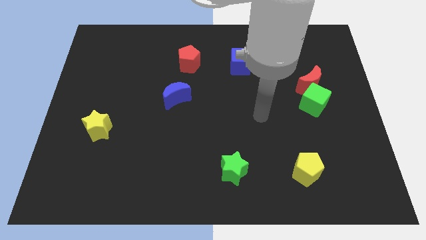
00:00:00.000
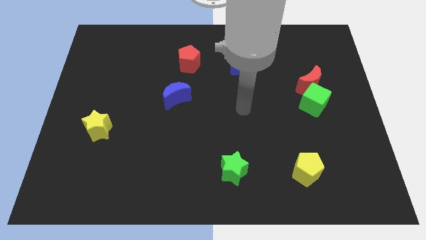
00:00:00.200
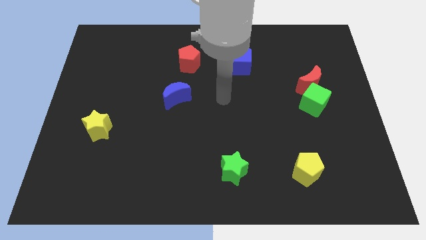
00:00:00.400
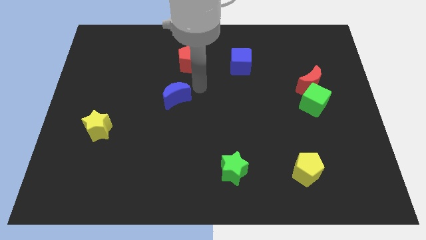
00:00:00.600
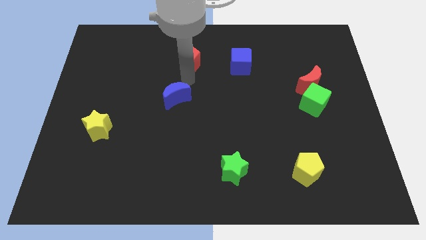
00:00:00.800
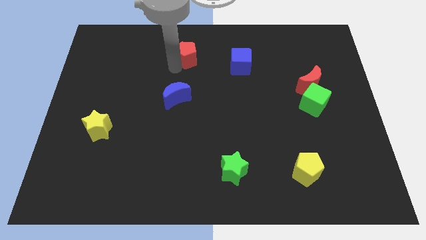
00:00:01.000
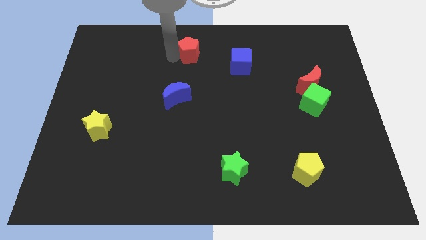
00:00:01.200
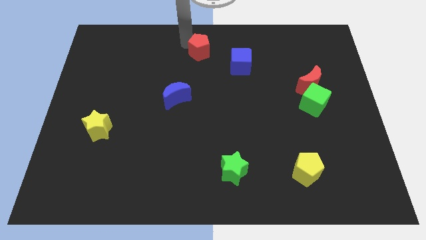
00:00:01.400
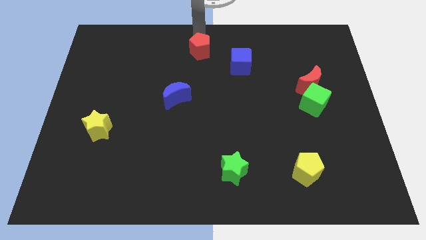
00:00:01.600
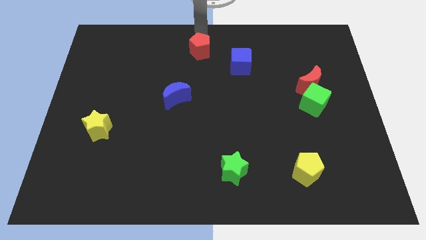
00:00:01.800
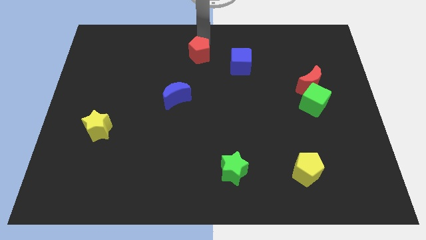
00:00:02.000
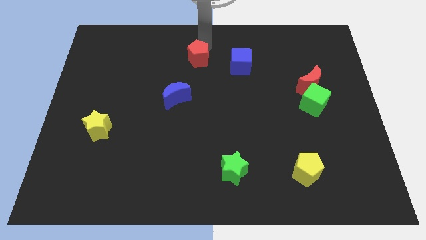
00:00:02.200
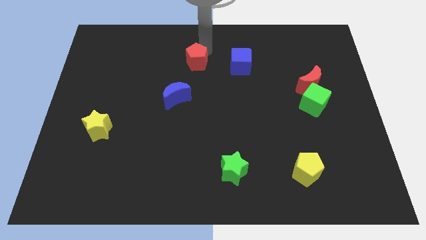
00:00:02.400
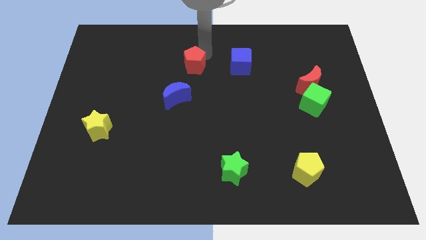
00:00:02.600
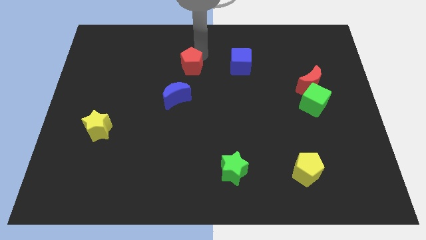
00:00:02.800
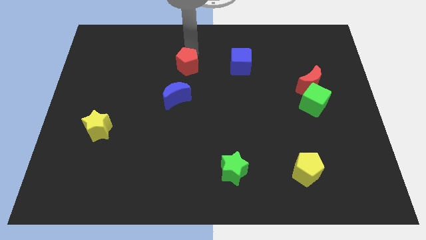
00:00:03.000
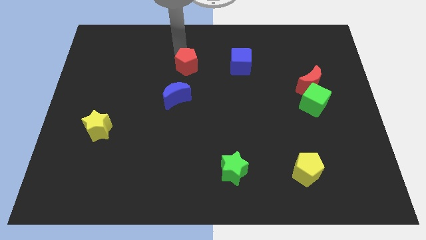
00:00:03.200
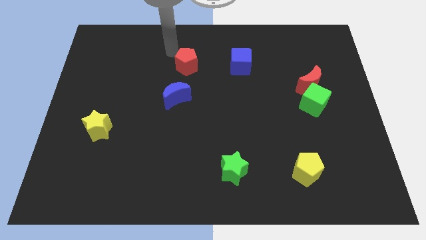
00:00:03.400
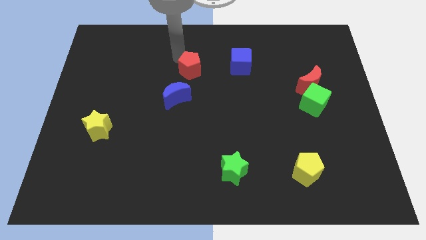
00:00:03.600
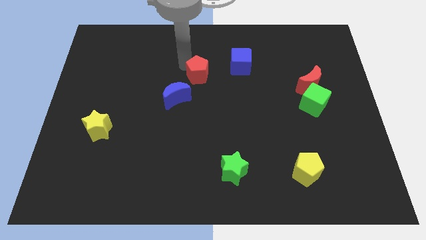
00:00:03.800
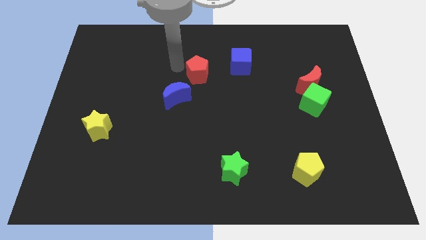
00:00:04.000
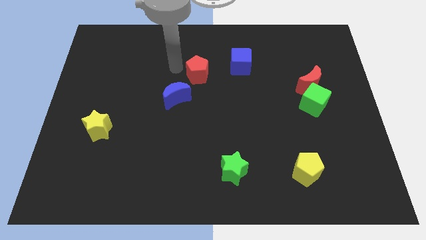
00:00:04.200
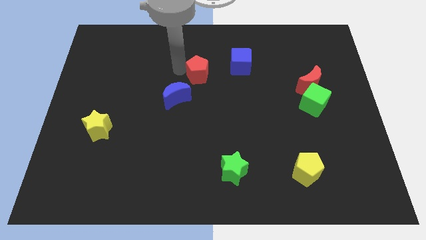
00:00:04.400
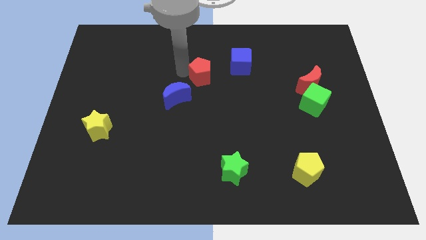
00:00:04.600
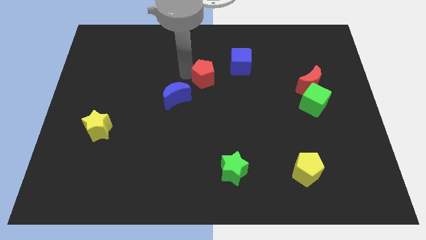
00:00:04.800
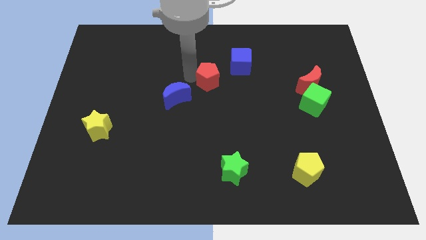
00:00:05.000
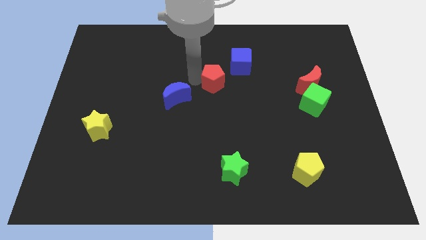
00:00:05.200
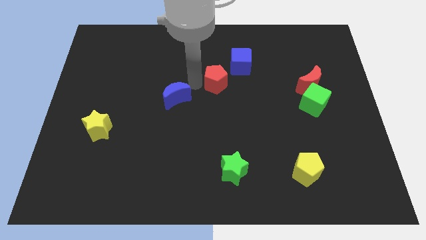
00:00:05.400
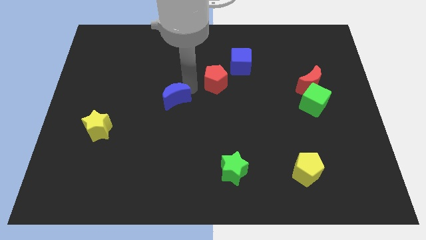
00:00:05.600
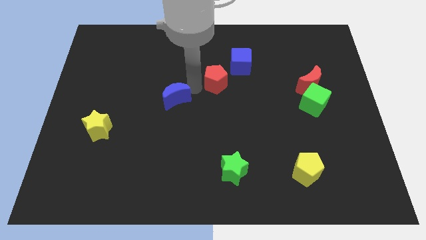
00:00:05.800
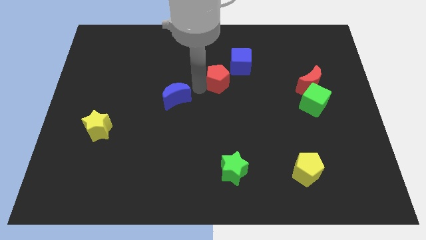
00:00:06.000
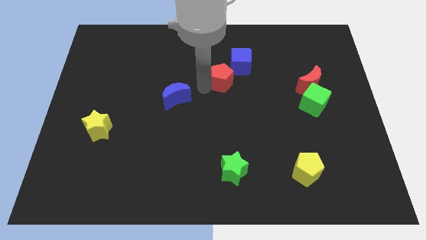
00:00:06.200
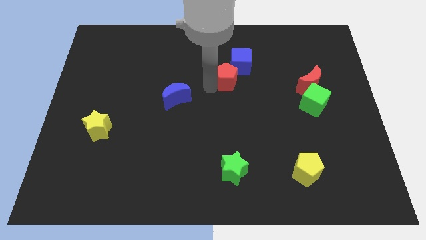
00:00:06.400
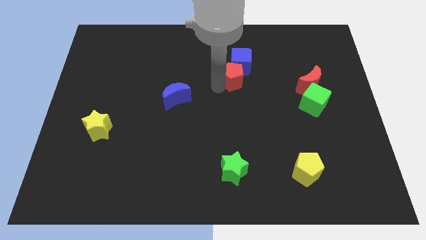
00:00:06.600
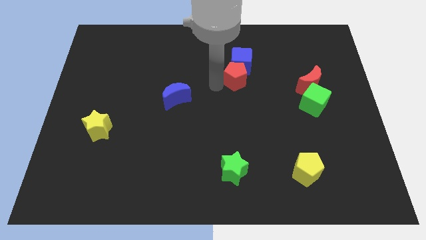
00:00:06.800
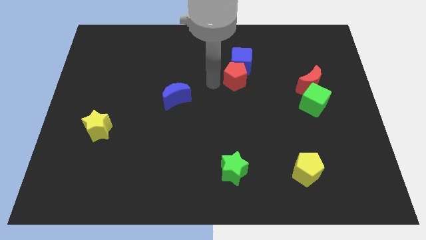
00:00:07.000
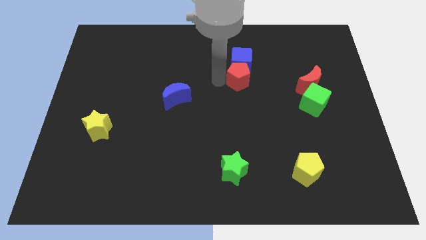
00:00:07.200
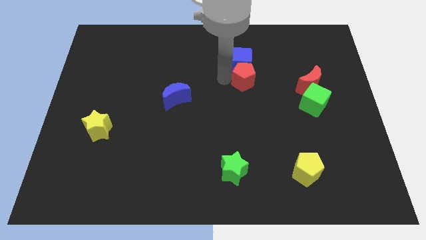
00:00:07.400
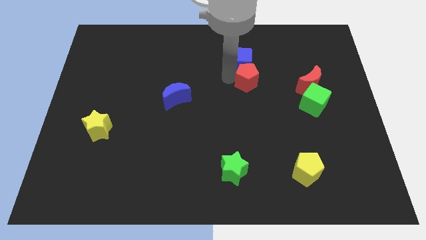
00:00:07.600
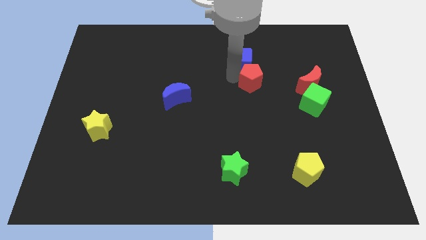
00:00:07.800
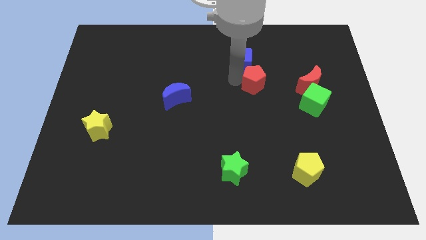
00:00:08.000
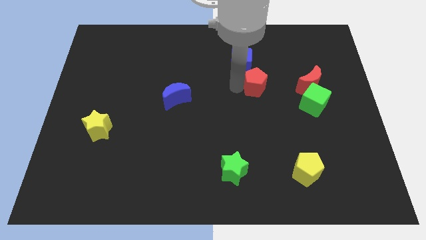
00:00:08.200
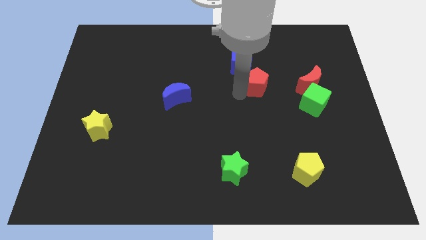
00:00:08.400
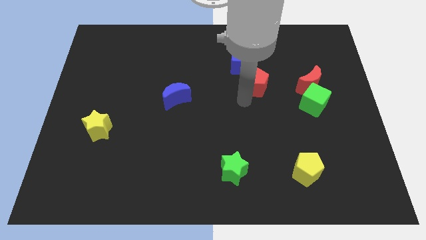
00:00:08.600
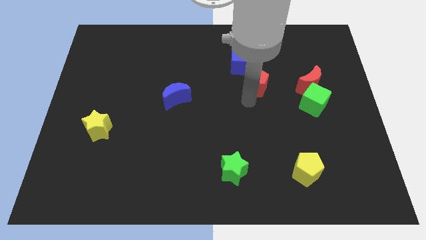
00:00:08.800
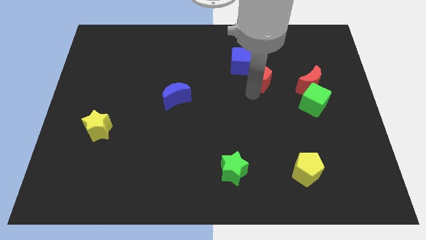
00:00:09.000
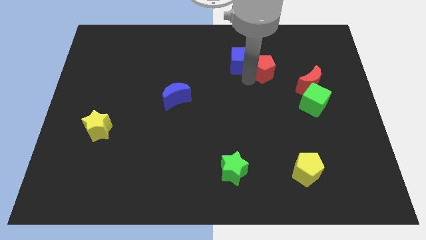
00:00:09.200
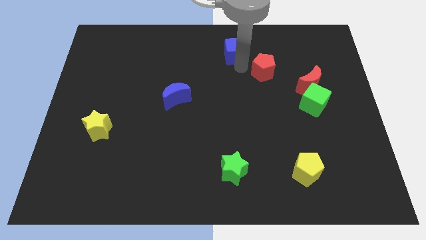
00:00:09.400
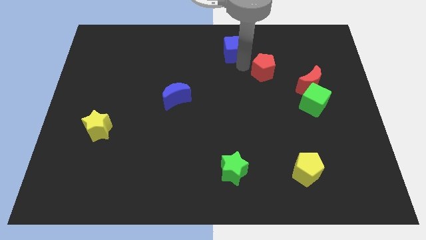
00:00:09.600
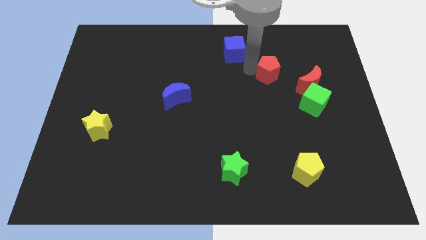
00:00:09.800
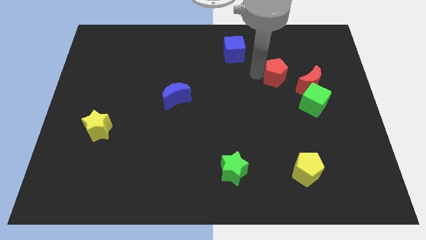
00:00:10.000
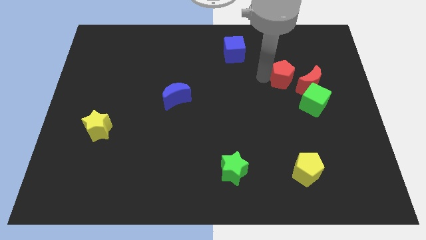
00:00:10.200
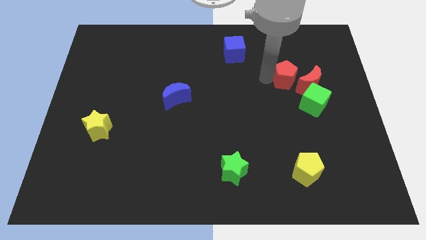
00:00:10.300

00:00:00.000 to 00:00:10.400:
put the red pentagon close to the red moon

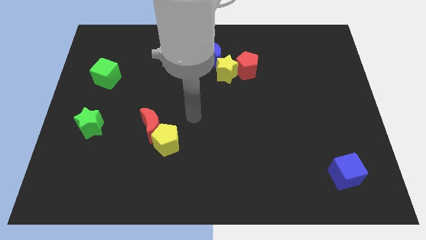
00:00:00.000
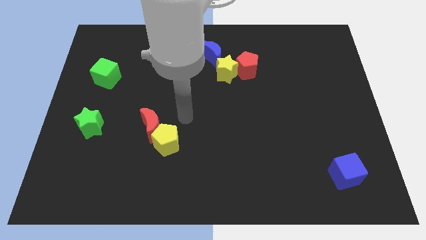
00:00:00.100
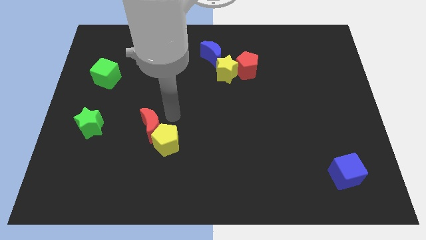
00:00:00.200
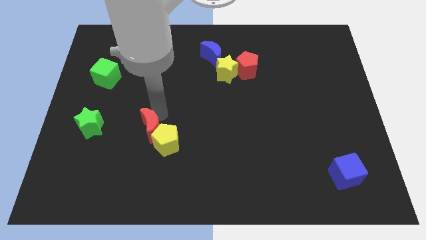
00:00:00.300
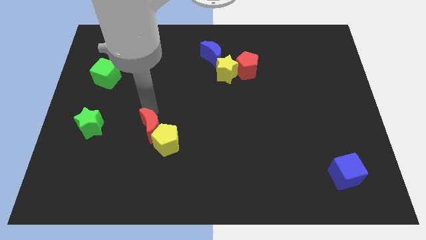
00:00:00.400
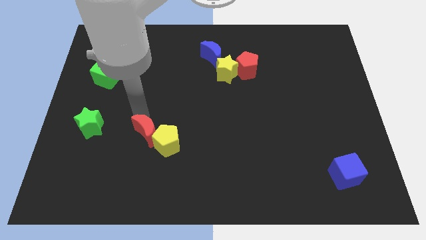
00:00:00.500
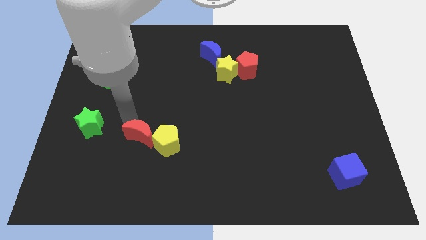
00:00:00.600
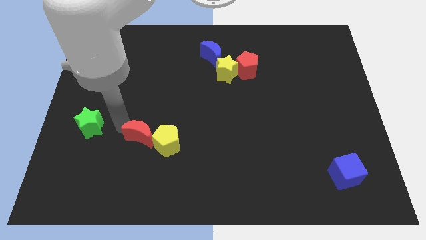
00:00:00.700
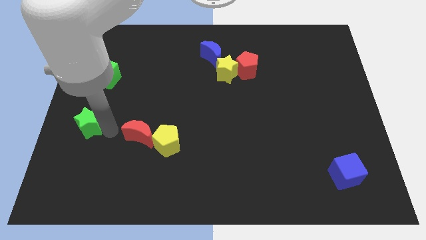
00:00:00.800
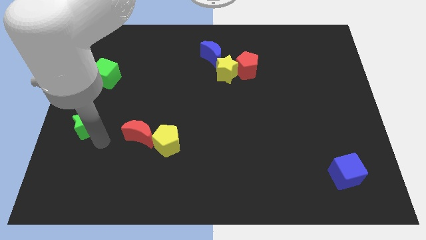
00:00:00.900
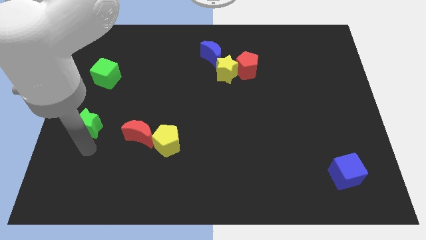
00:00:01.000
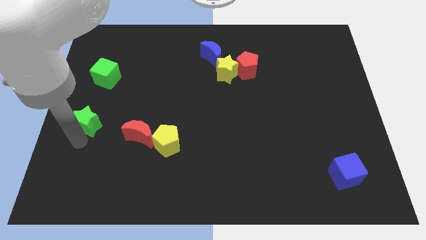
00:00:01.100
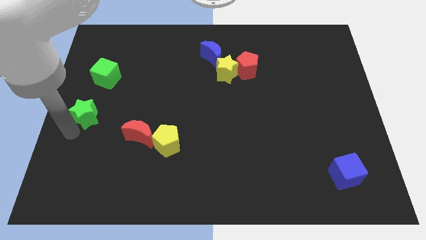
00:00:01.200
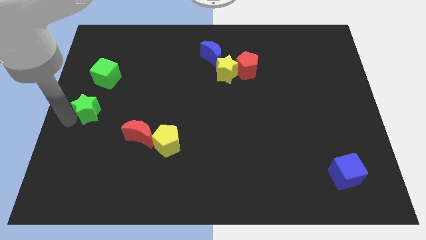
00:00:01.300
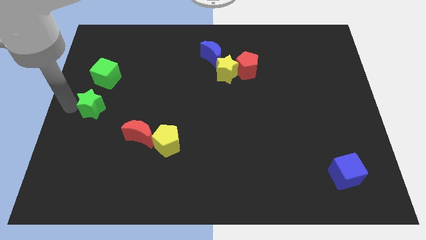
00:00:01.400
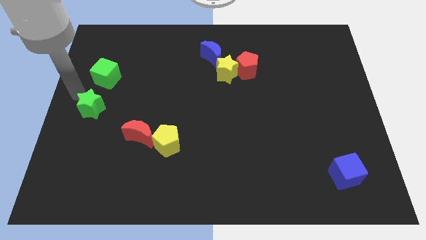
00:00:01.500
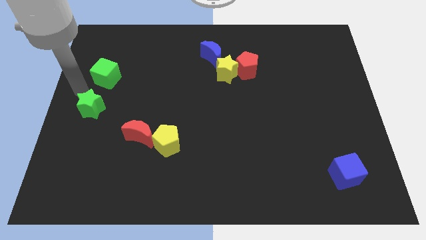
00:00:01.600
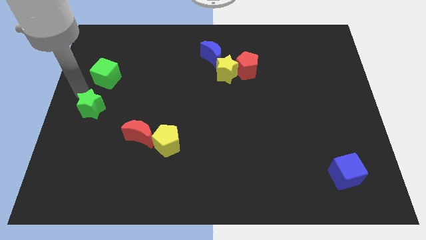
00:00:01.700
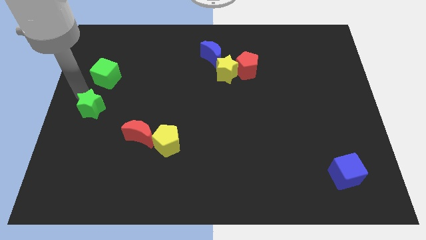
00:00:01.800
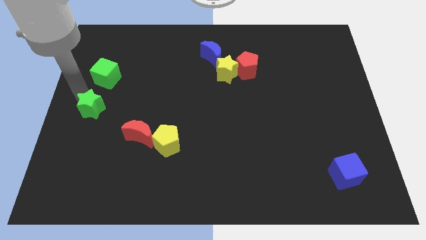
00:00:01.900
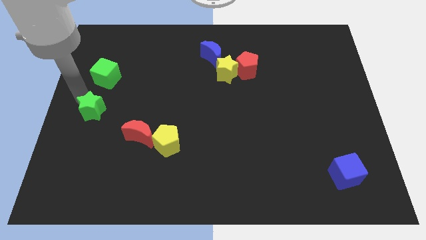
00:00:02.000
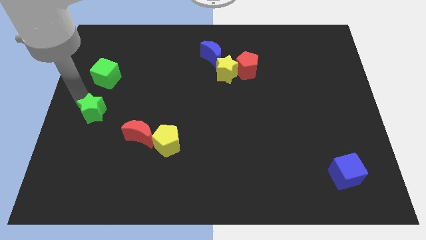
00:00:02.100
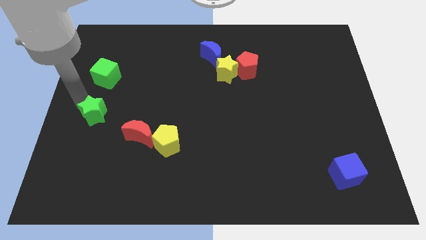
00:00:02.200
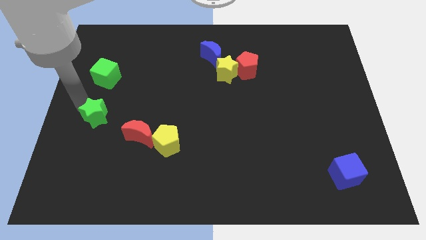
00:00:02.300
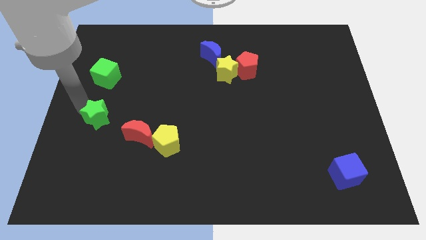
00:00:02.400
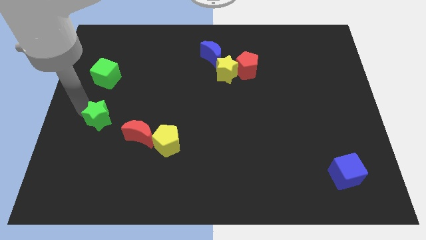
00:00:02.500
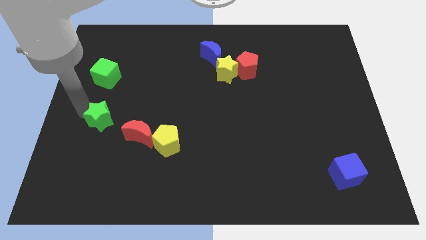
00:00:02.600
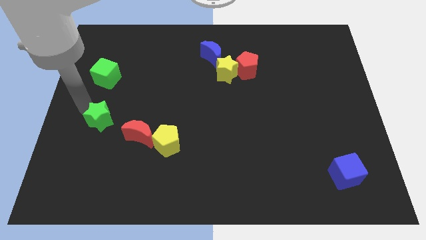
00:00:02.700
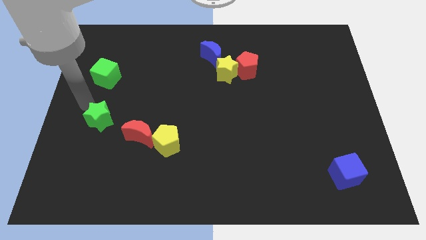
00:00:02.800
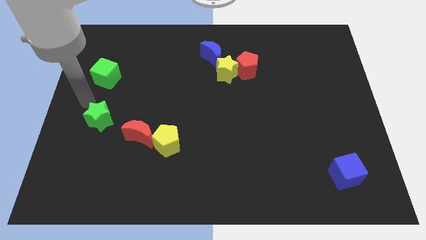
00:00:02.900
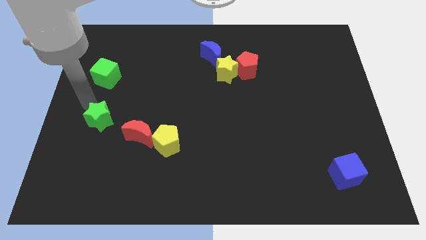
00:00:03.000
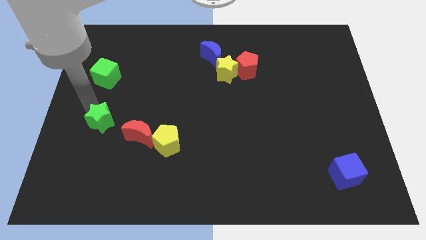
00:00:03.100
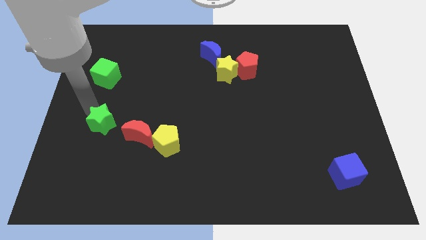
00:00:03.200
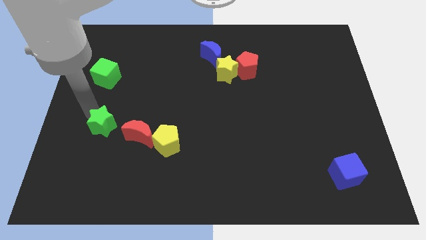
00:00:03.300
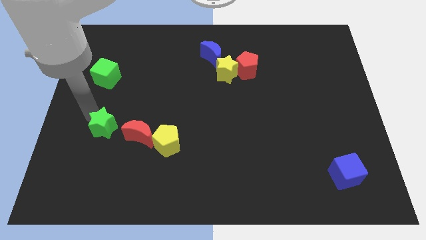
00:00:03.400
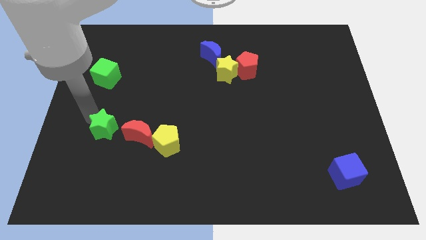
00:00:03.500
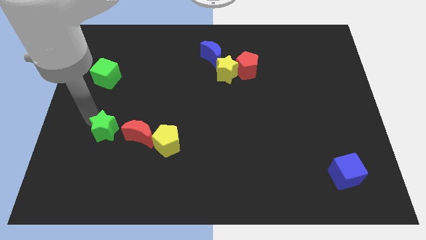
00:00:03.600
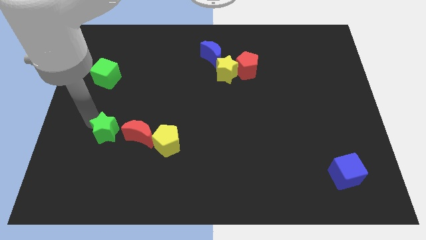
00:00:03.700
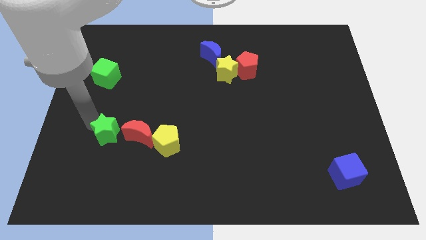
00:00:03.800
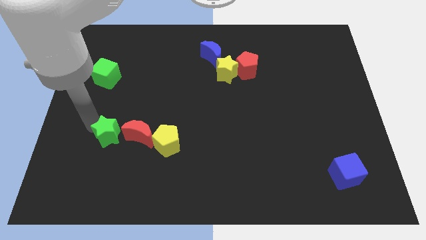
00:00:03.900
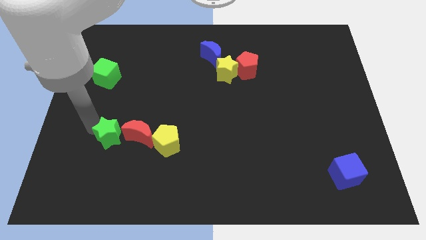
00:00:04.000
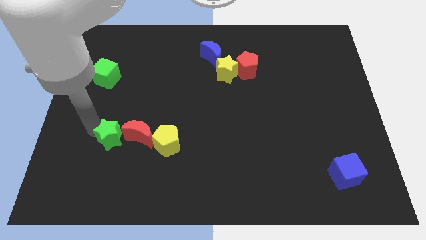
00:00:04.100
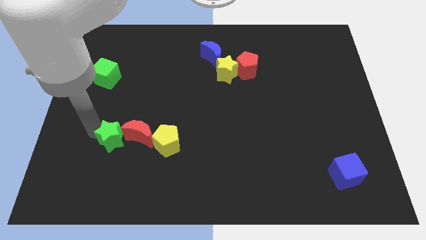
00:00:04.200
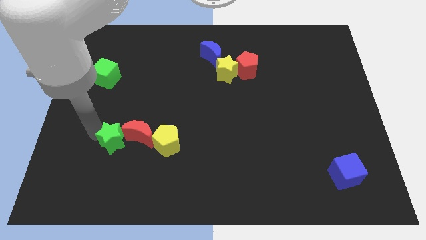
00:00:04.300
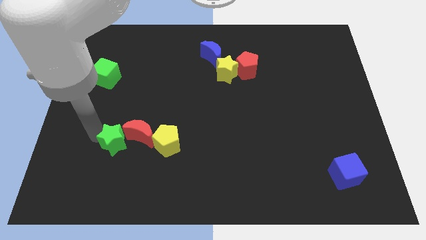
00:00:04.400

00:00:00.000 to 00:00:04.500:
put the green star towards the red moon
